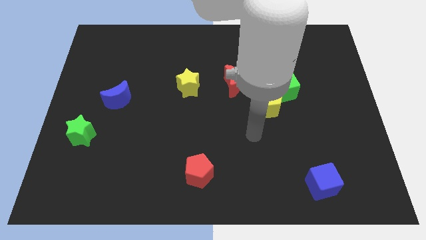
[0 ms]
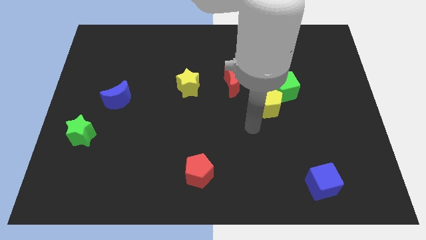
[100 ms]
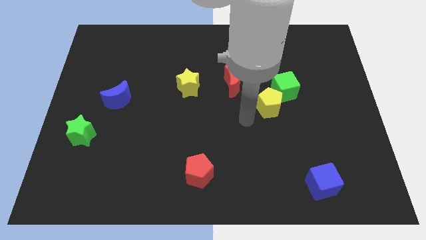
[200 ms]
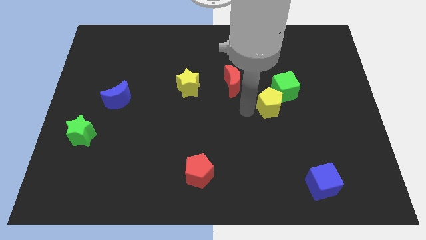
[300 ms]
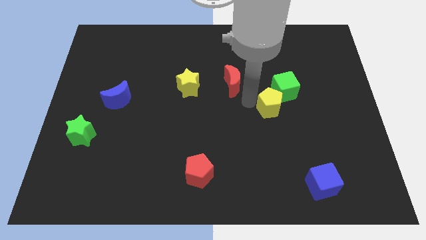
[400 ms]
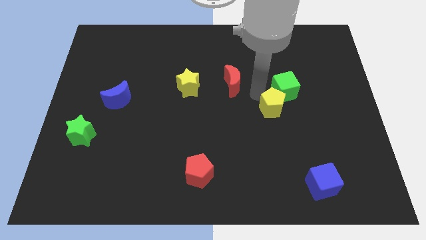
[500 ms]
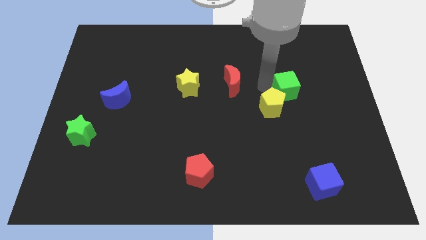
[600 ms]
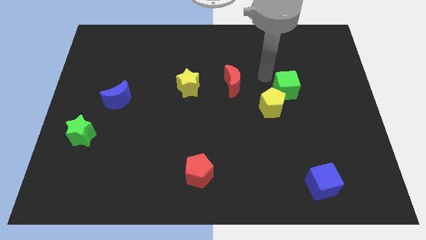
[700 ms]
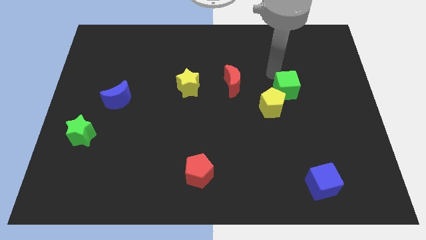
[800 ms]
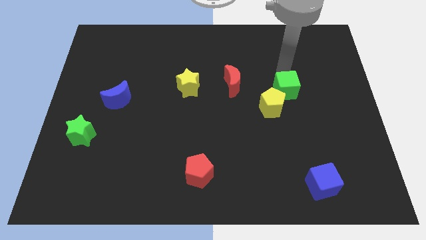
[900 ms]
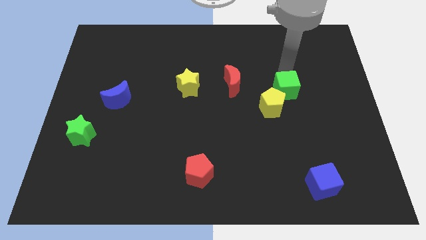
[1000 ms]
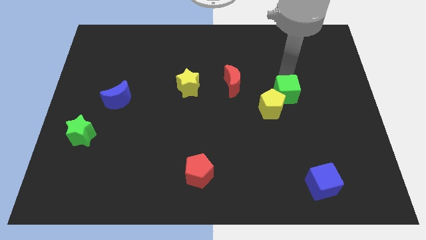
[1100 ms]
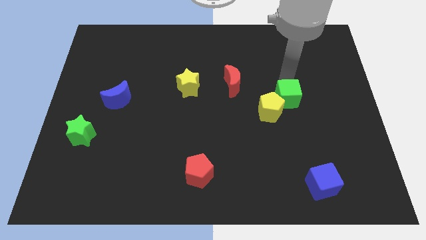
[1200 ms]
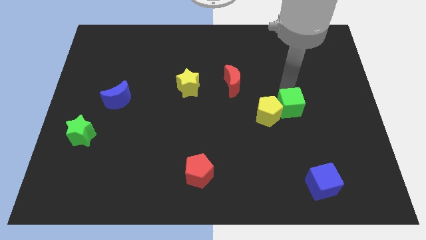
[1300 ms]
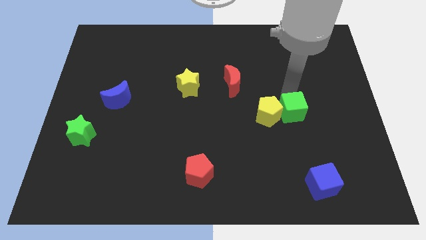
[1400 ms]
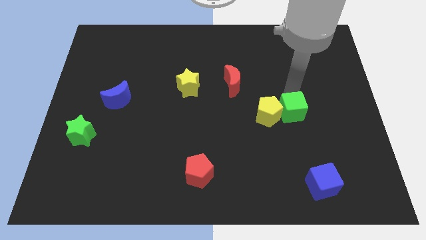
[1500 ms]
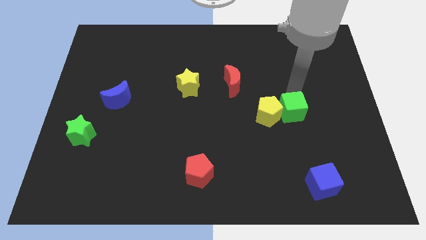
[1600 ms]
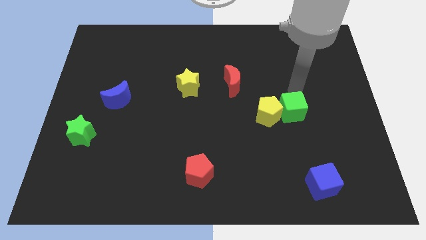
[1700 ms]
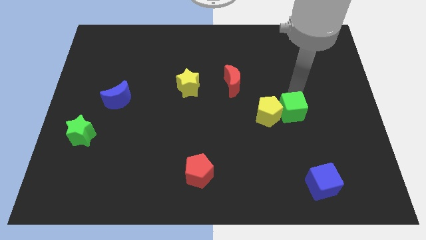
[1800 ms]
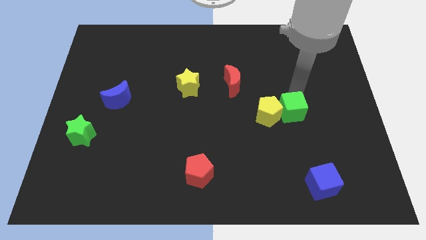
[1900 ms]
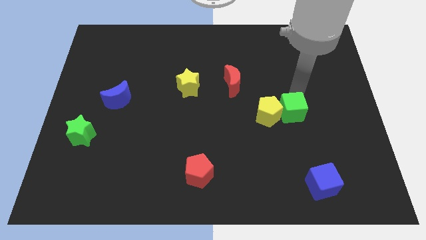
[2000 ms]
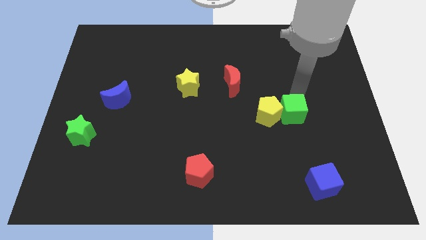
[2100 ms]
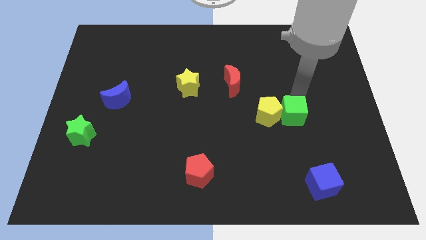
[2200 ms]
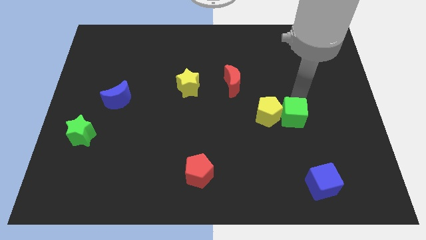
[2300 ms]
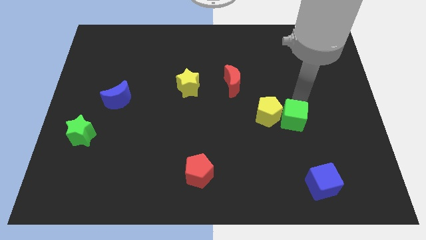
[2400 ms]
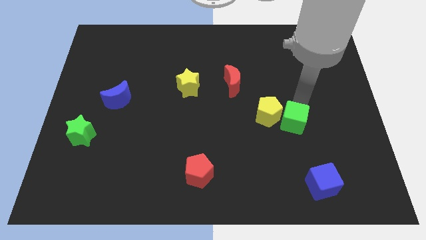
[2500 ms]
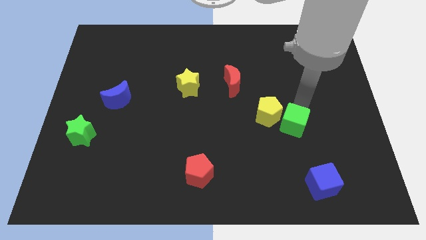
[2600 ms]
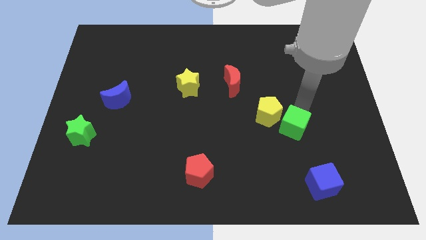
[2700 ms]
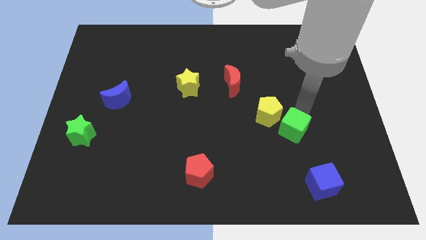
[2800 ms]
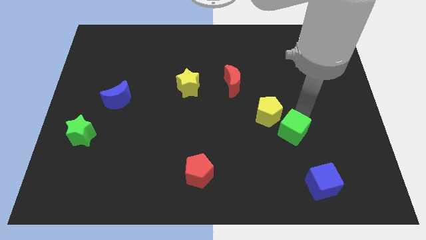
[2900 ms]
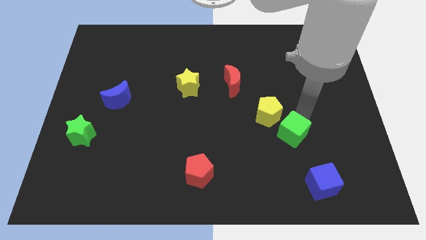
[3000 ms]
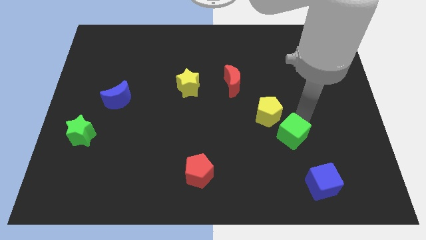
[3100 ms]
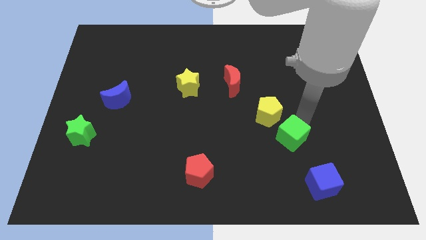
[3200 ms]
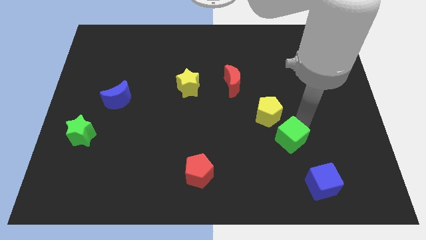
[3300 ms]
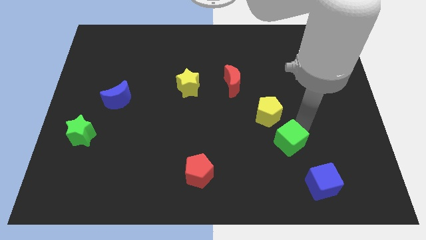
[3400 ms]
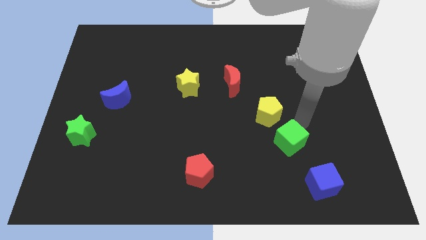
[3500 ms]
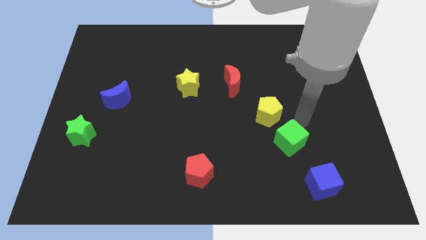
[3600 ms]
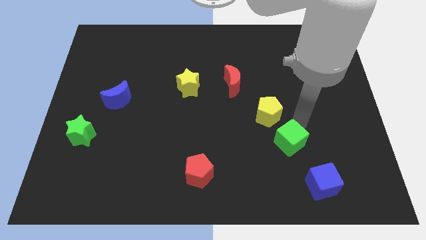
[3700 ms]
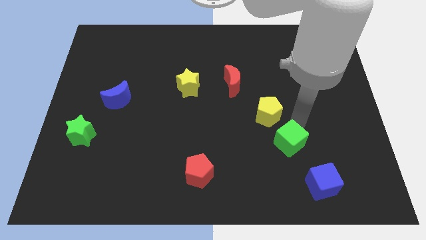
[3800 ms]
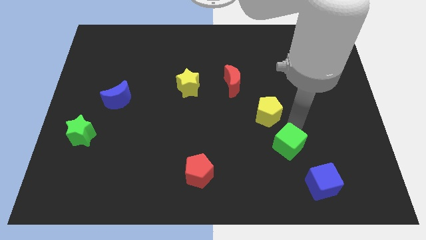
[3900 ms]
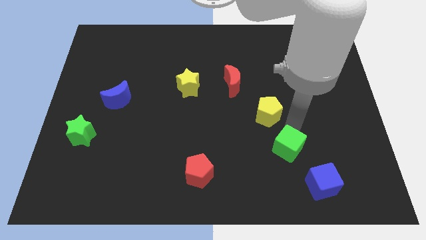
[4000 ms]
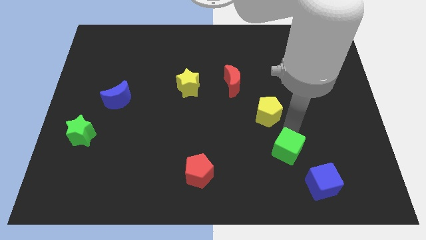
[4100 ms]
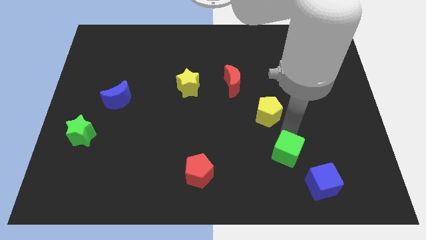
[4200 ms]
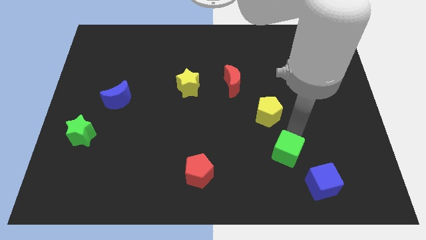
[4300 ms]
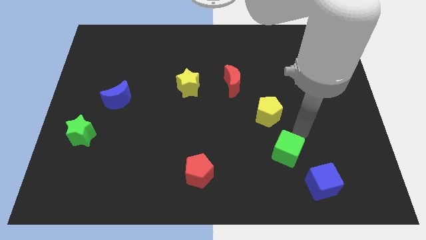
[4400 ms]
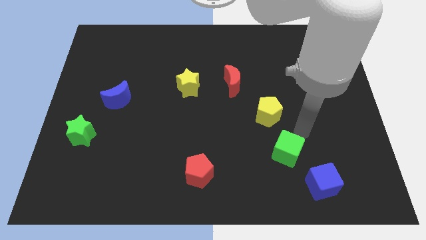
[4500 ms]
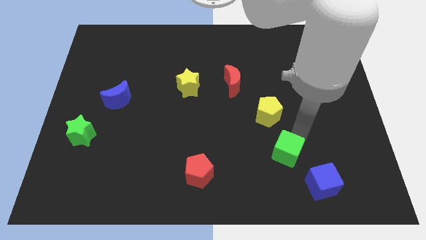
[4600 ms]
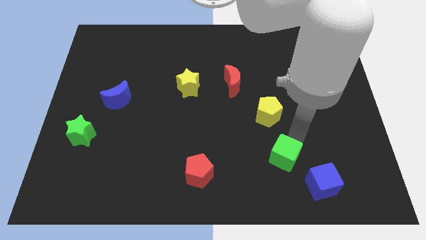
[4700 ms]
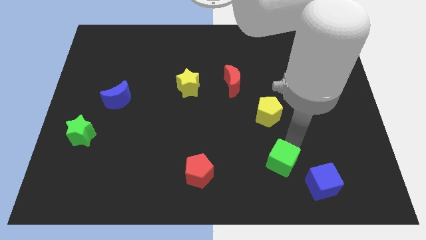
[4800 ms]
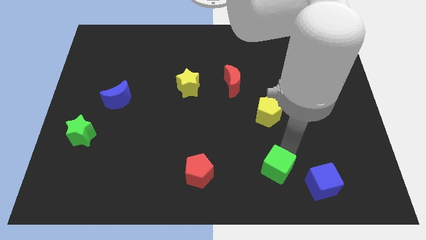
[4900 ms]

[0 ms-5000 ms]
move the green cube to the left of the blue cube

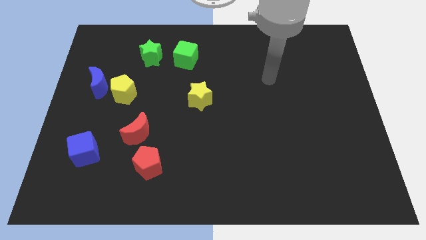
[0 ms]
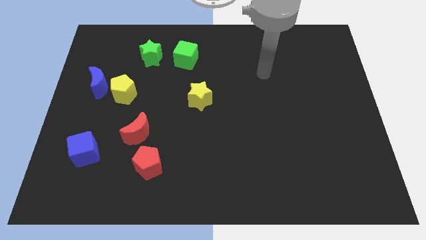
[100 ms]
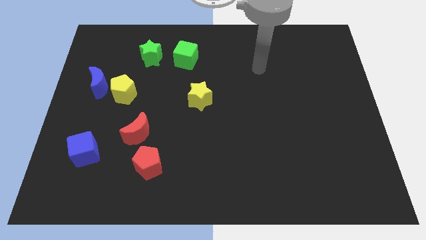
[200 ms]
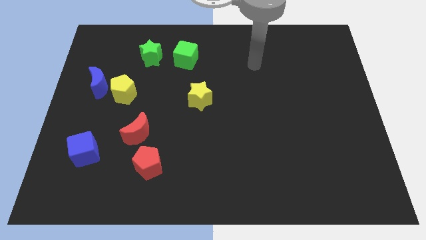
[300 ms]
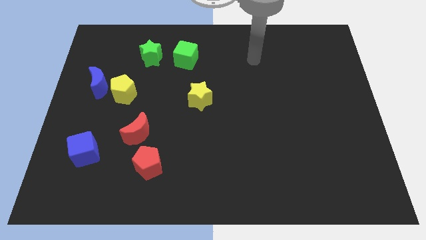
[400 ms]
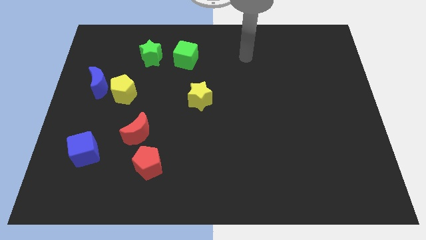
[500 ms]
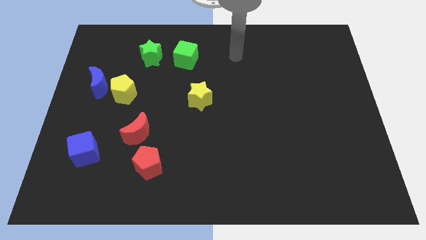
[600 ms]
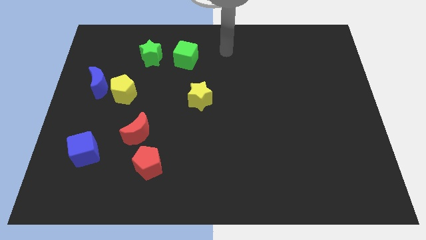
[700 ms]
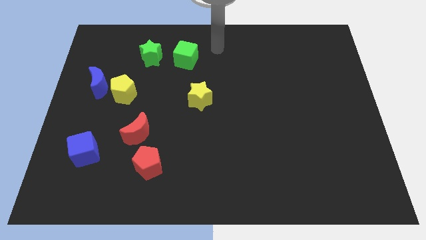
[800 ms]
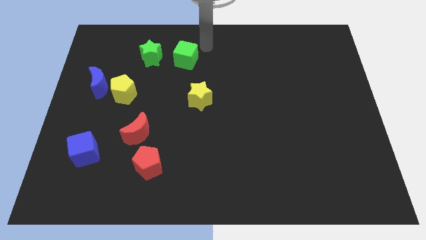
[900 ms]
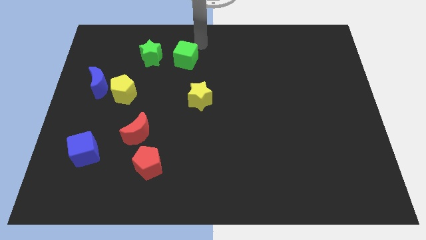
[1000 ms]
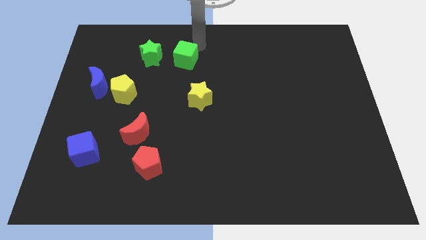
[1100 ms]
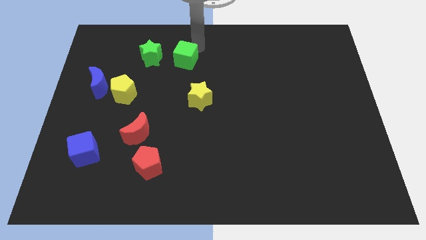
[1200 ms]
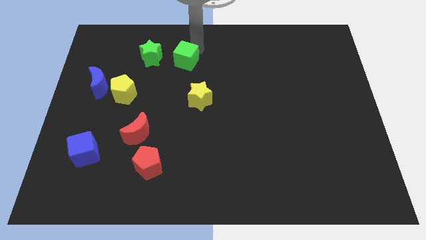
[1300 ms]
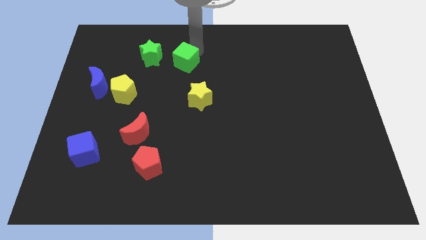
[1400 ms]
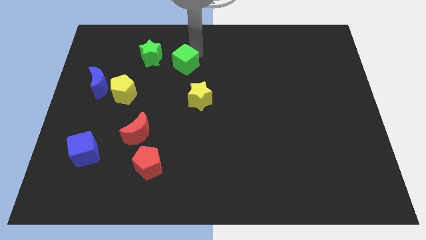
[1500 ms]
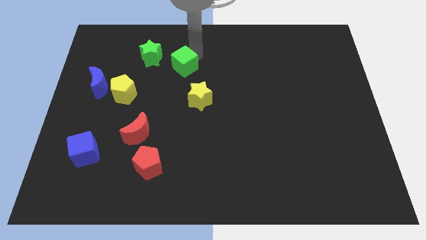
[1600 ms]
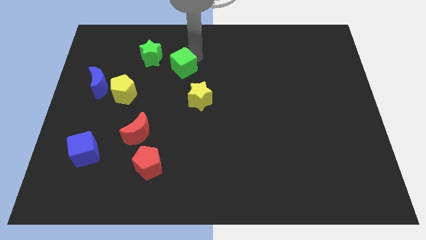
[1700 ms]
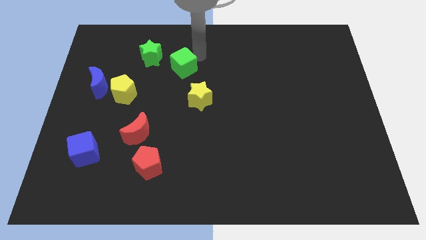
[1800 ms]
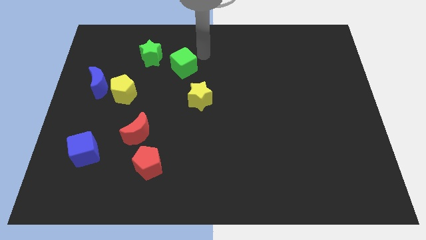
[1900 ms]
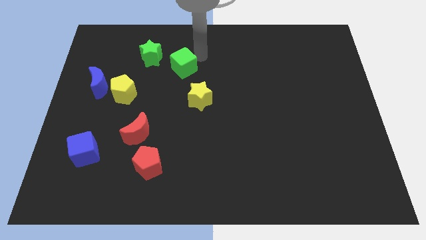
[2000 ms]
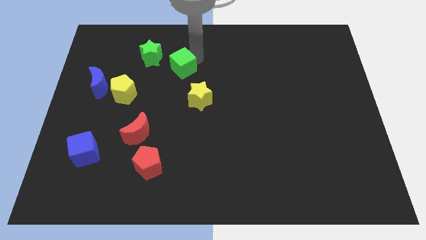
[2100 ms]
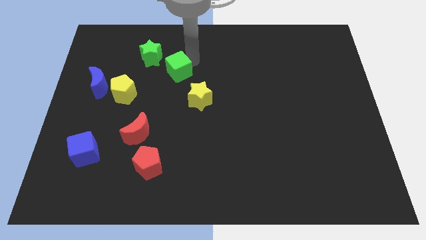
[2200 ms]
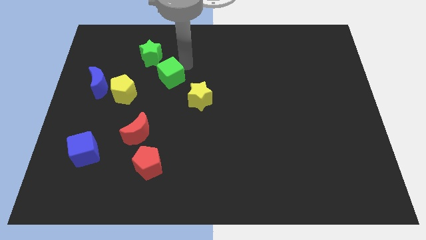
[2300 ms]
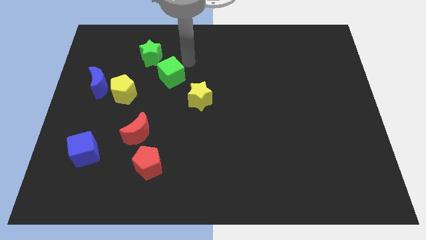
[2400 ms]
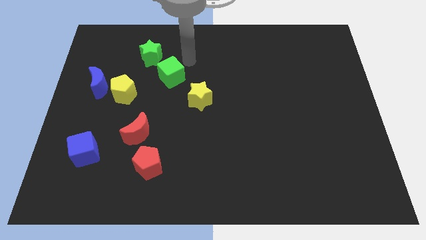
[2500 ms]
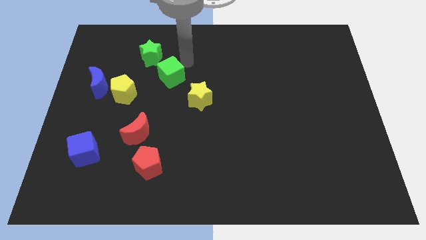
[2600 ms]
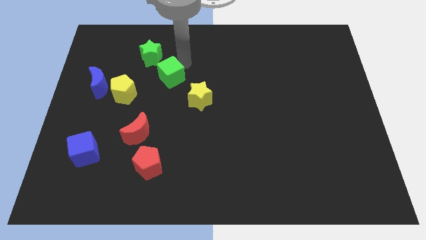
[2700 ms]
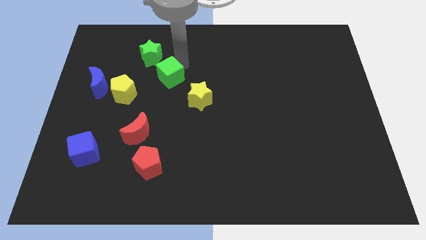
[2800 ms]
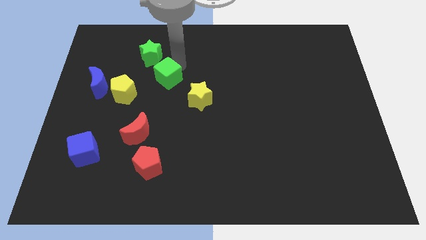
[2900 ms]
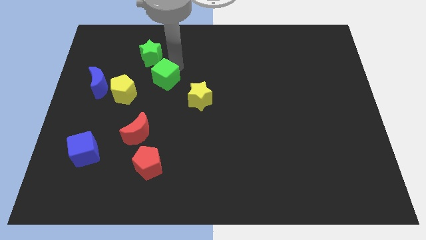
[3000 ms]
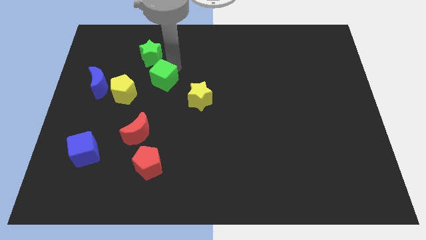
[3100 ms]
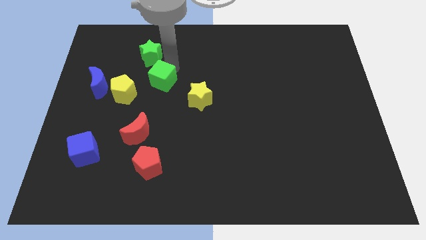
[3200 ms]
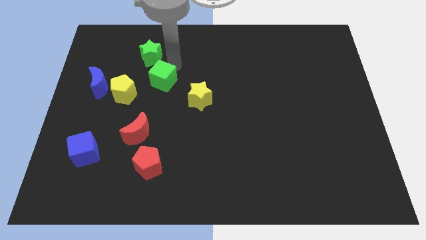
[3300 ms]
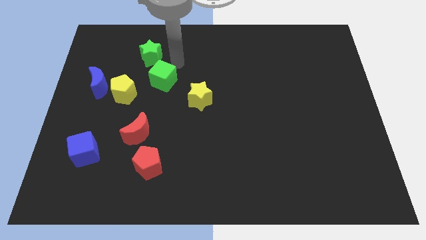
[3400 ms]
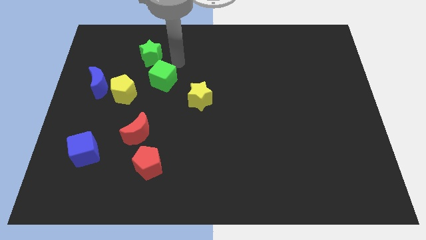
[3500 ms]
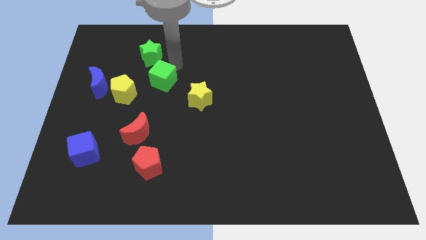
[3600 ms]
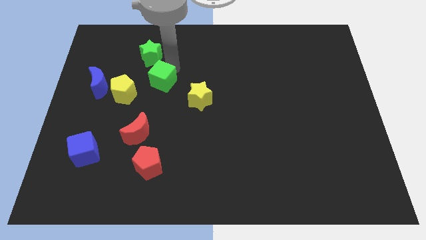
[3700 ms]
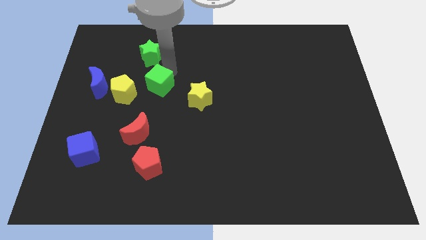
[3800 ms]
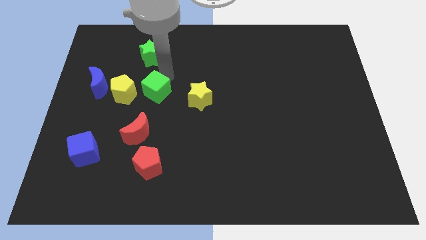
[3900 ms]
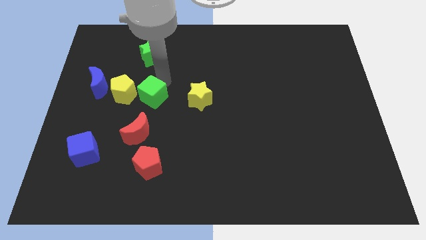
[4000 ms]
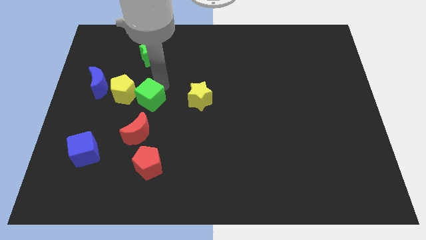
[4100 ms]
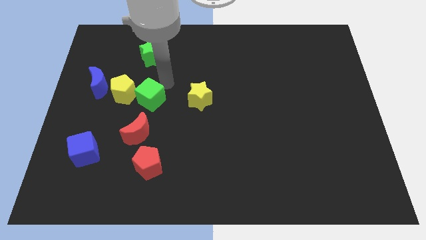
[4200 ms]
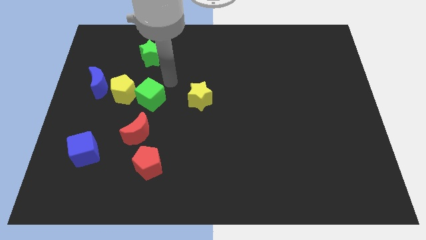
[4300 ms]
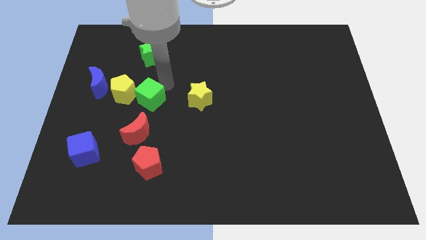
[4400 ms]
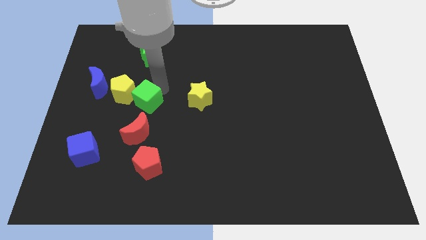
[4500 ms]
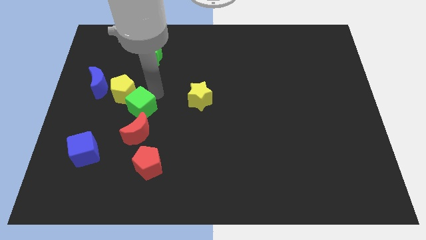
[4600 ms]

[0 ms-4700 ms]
put the green cube to the bottom side of the yellow pentagon
